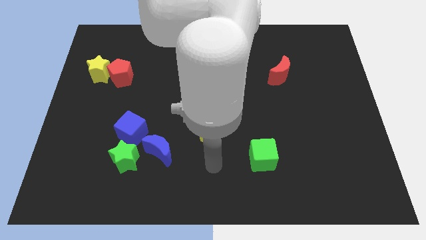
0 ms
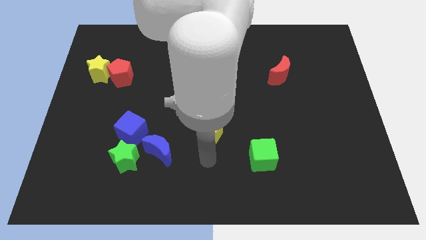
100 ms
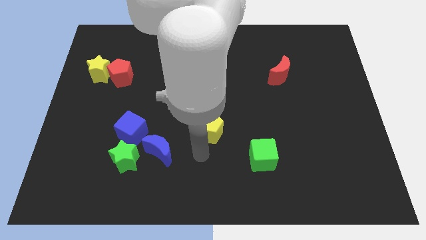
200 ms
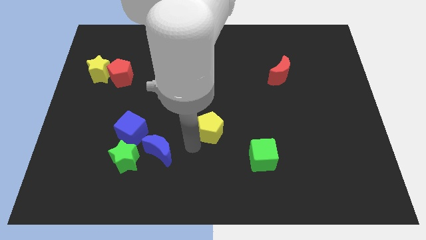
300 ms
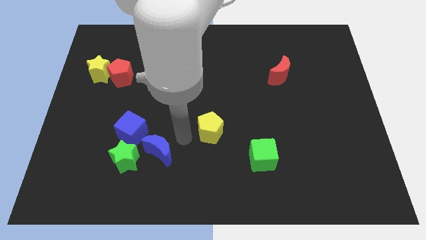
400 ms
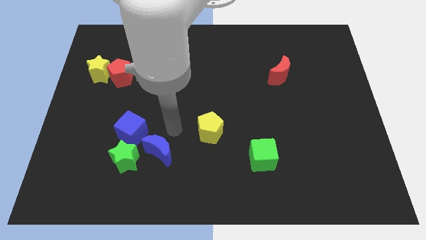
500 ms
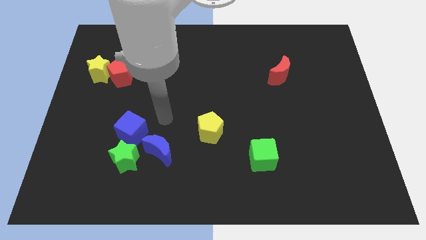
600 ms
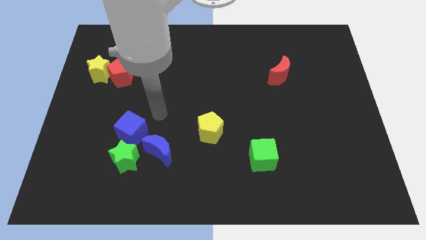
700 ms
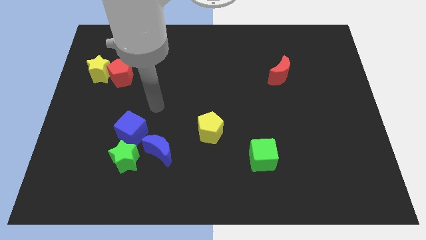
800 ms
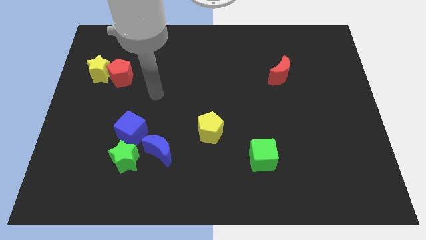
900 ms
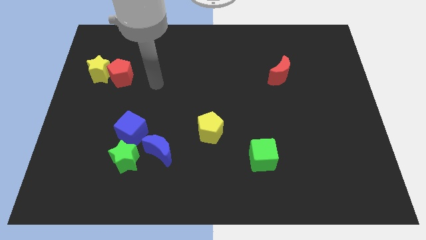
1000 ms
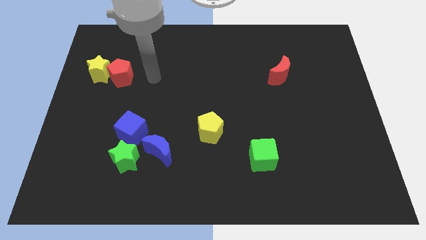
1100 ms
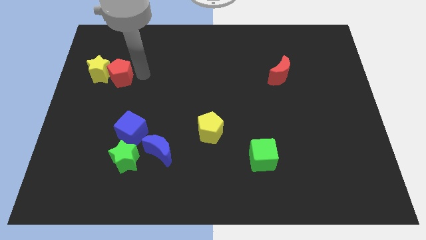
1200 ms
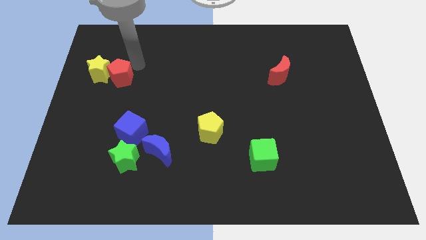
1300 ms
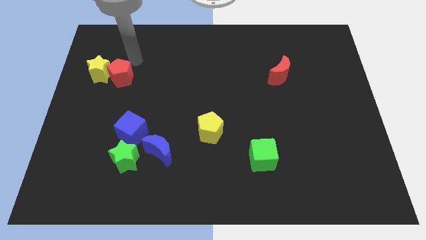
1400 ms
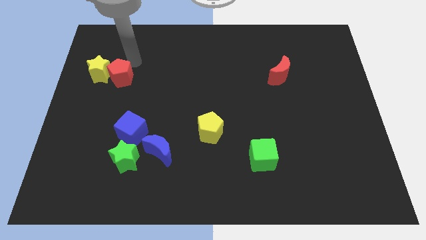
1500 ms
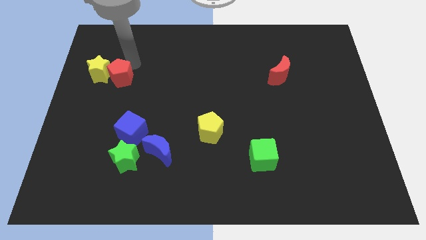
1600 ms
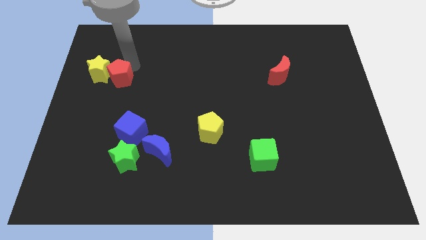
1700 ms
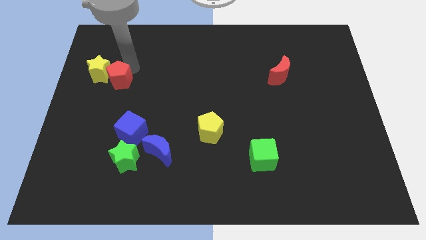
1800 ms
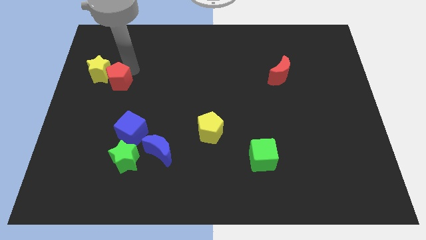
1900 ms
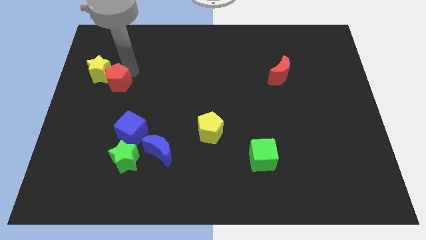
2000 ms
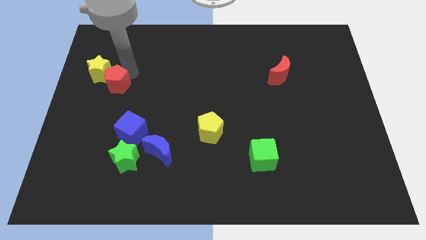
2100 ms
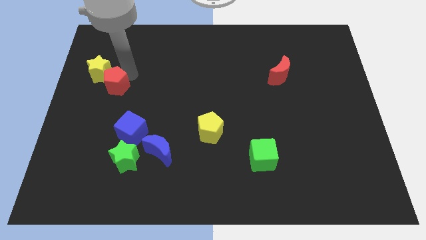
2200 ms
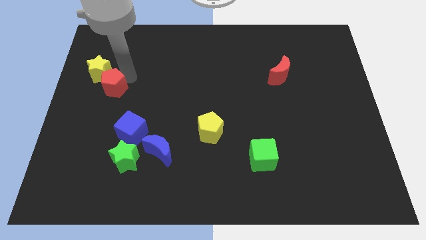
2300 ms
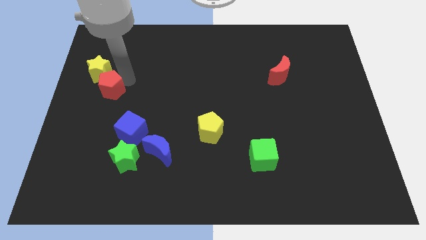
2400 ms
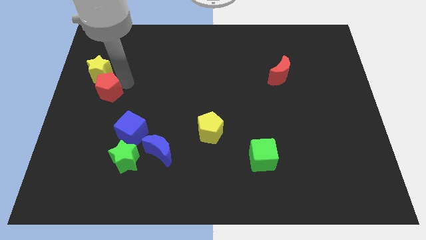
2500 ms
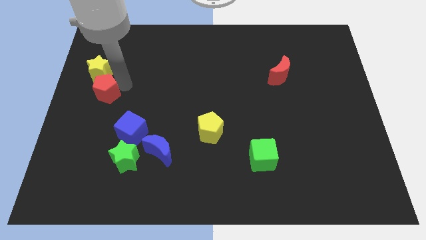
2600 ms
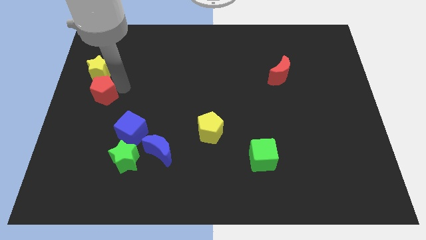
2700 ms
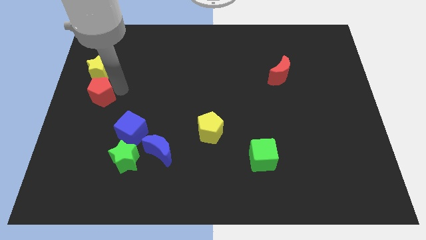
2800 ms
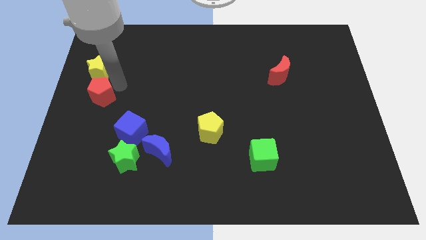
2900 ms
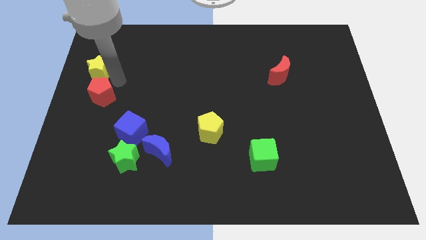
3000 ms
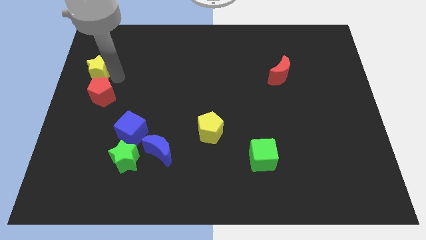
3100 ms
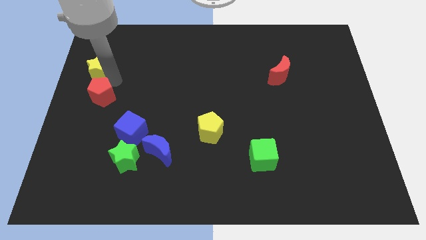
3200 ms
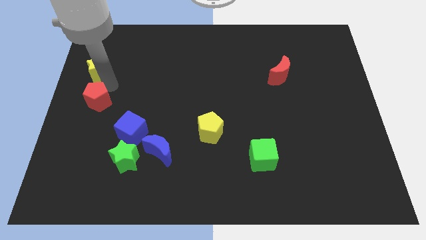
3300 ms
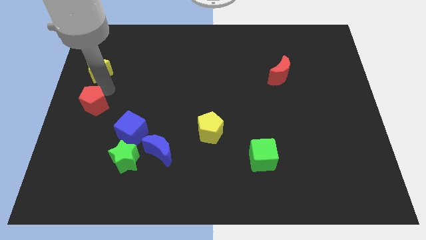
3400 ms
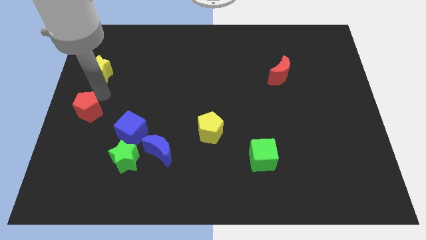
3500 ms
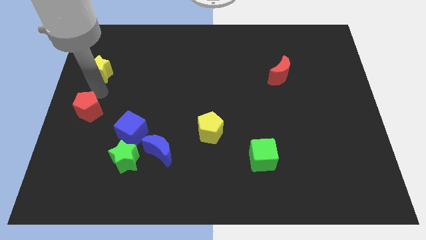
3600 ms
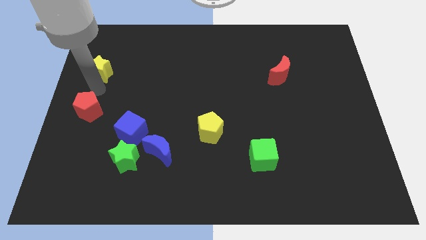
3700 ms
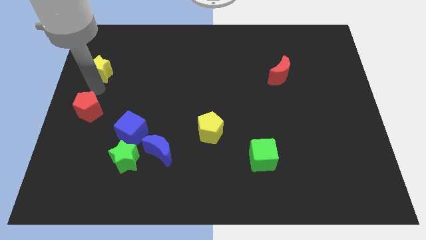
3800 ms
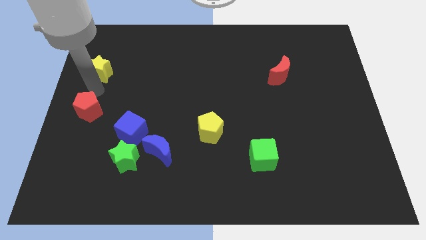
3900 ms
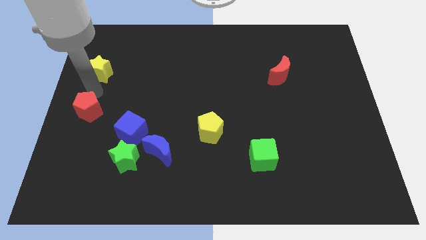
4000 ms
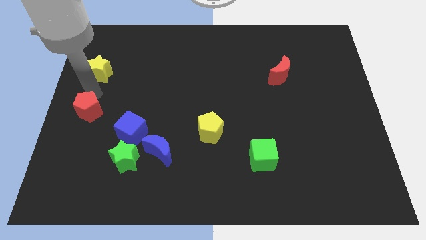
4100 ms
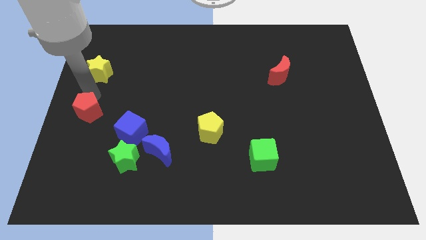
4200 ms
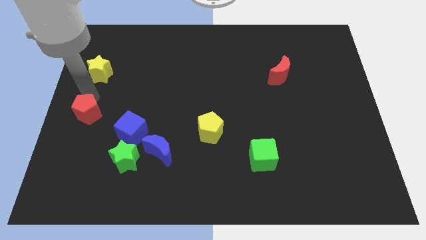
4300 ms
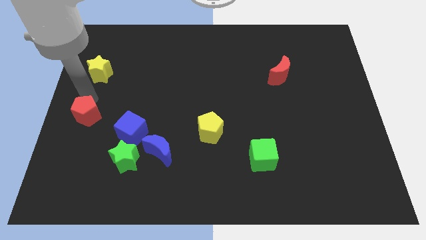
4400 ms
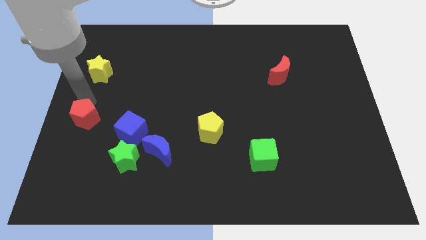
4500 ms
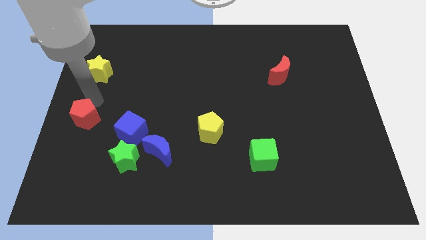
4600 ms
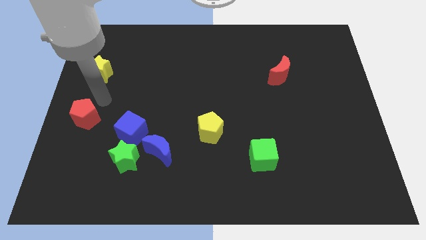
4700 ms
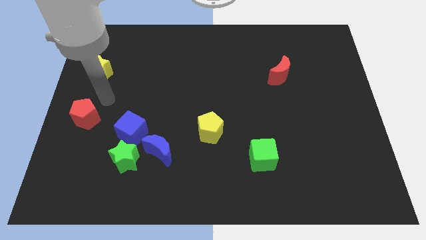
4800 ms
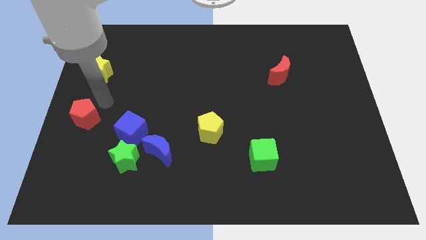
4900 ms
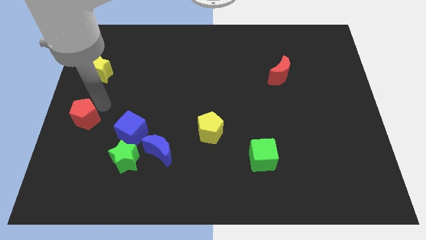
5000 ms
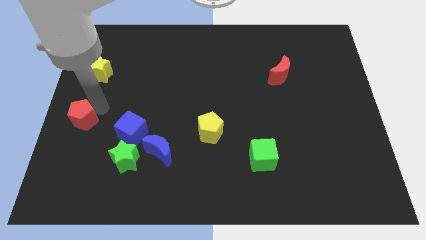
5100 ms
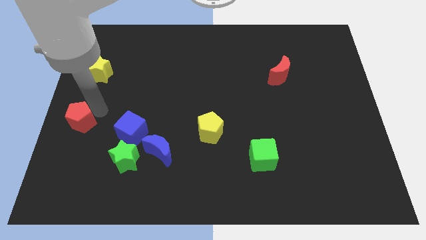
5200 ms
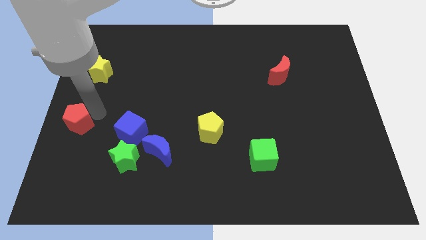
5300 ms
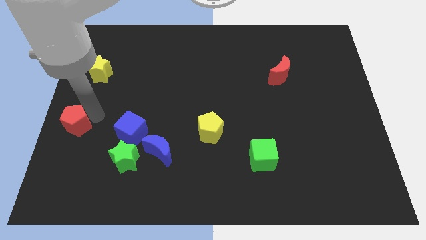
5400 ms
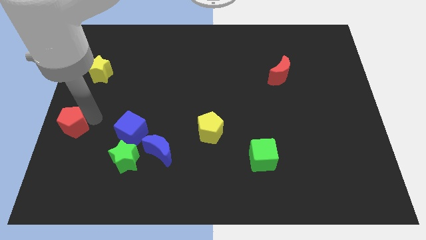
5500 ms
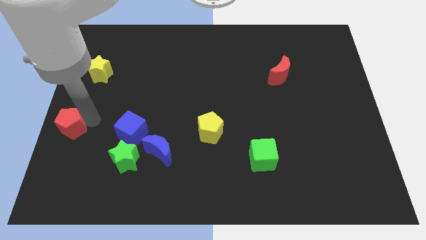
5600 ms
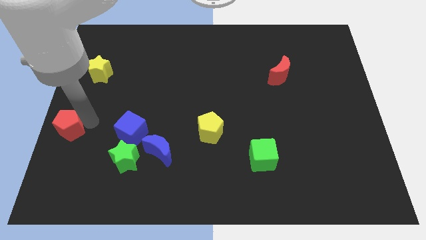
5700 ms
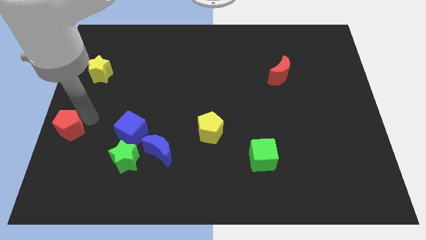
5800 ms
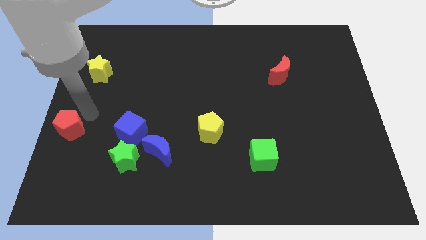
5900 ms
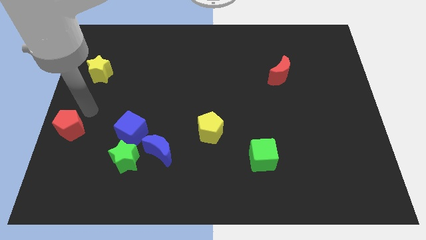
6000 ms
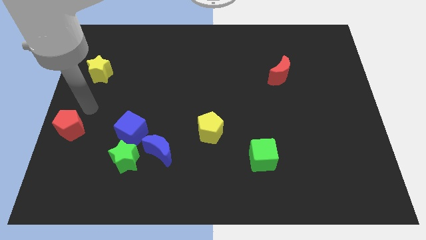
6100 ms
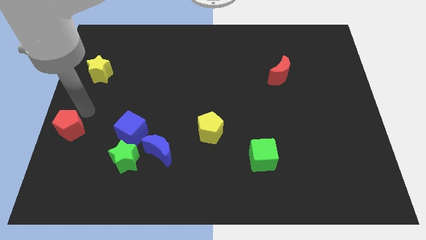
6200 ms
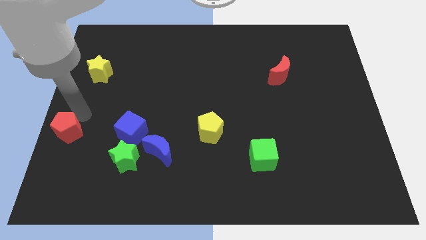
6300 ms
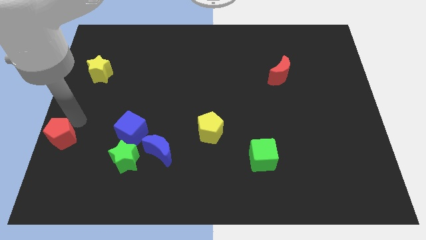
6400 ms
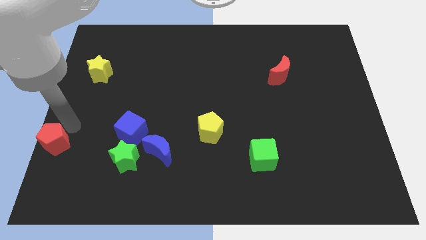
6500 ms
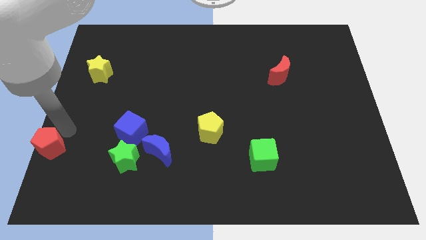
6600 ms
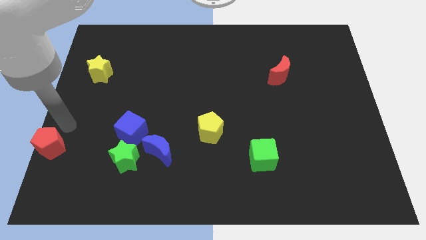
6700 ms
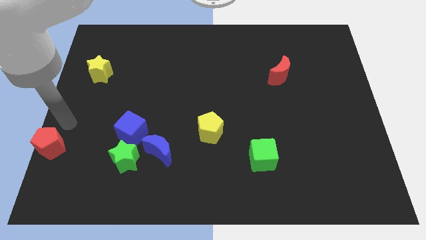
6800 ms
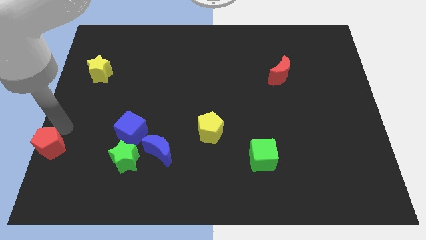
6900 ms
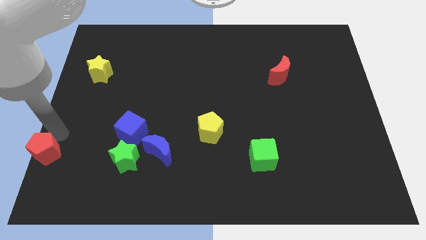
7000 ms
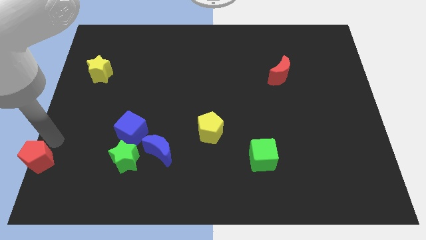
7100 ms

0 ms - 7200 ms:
put the red pentagon to the bottom left corner
